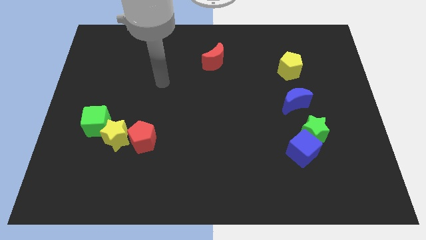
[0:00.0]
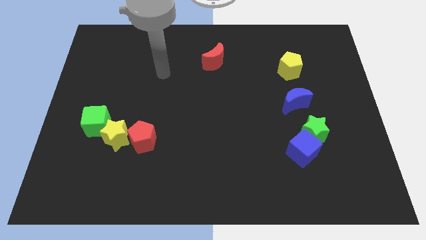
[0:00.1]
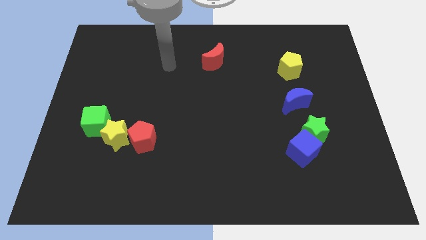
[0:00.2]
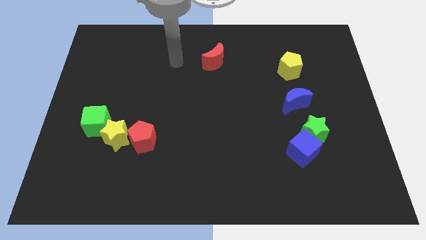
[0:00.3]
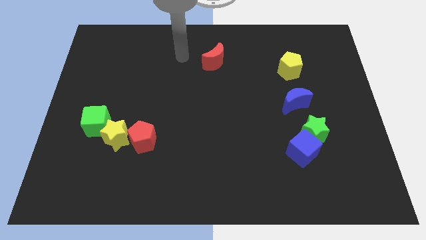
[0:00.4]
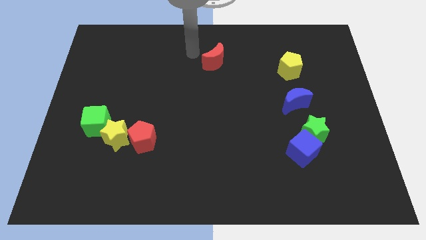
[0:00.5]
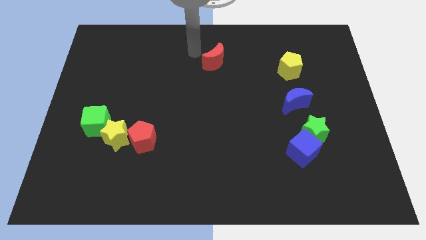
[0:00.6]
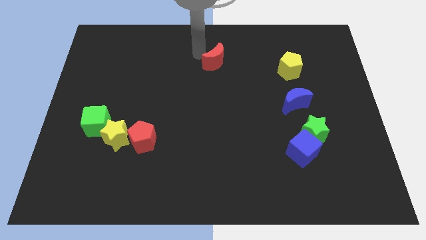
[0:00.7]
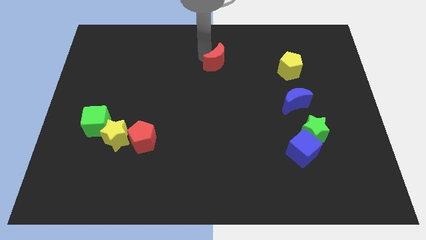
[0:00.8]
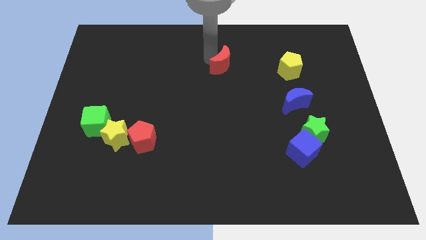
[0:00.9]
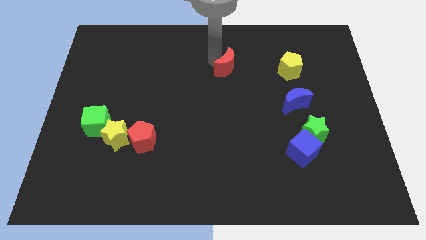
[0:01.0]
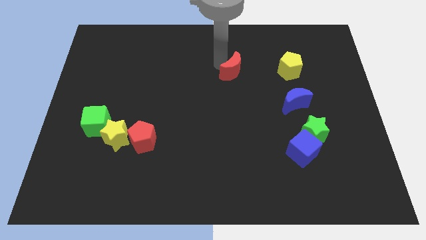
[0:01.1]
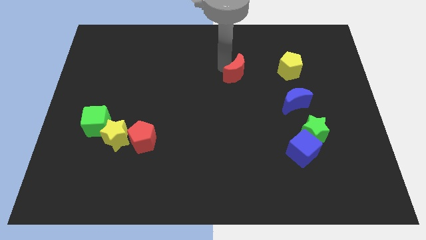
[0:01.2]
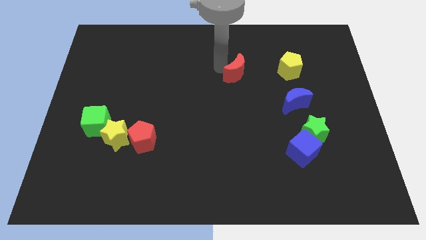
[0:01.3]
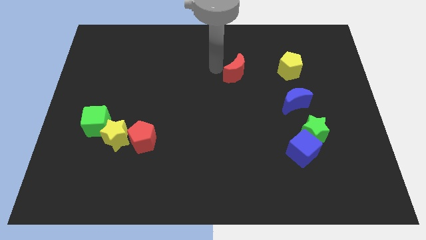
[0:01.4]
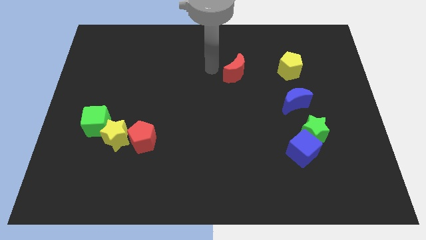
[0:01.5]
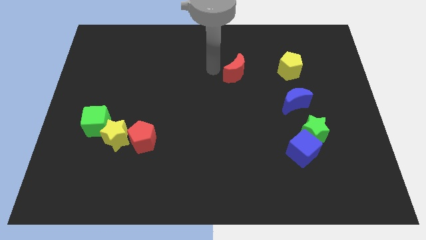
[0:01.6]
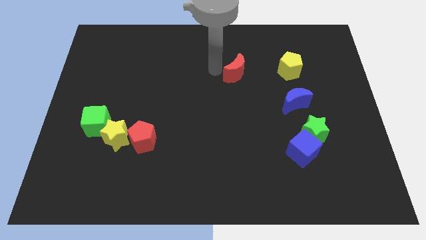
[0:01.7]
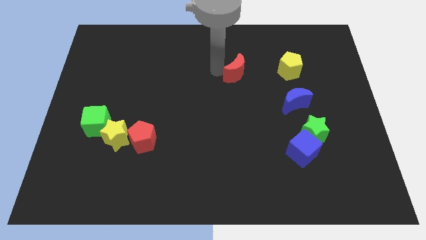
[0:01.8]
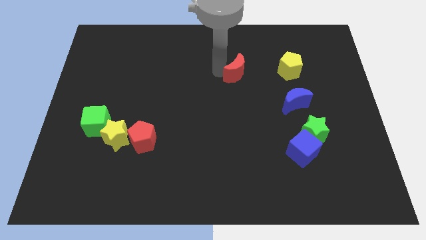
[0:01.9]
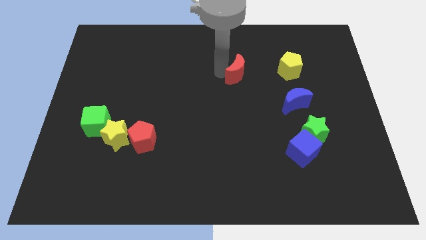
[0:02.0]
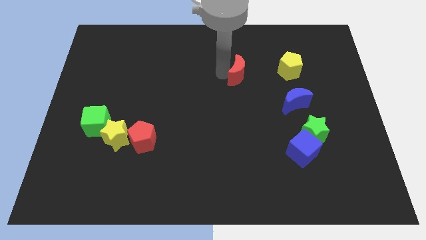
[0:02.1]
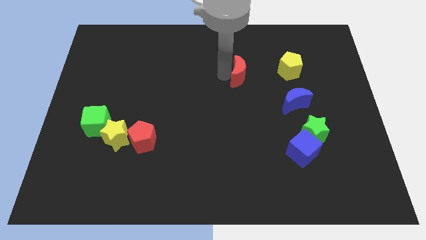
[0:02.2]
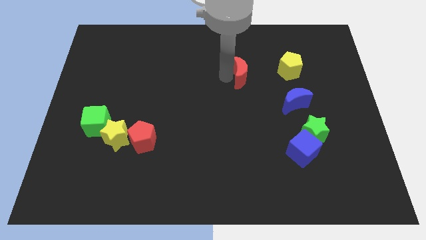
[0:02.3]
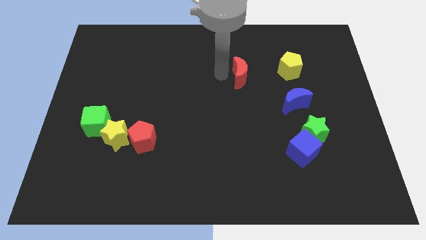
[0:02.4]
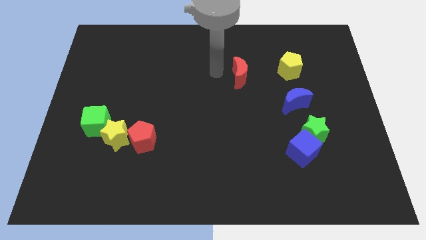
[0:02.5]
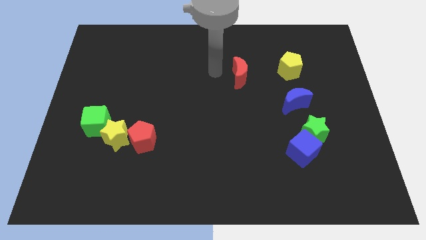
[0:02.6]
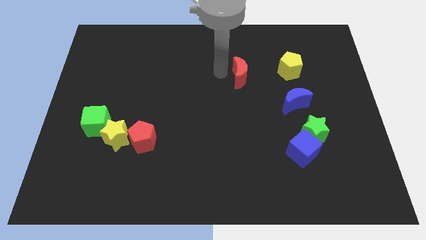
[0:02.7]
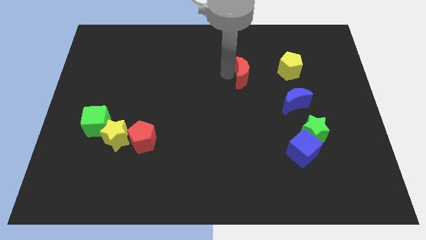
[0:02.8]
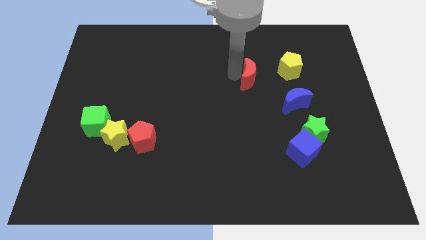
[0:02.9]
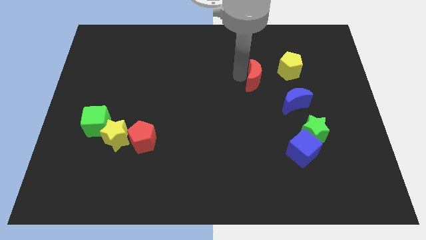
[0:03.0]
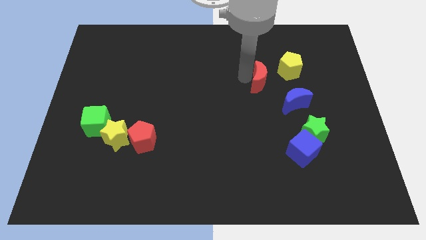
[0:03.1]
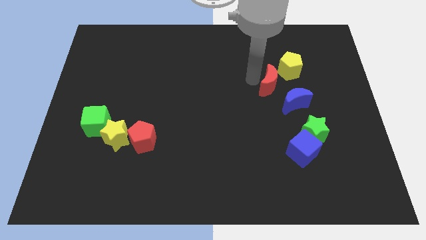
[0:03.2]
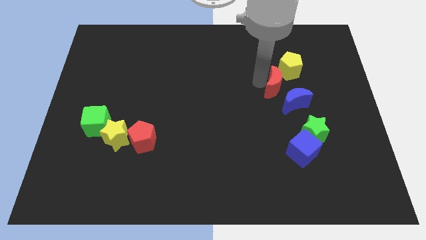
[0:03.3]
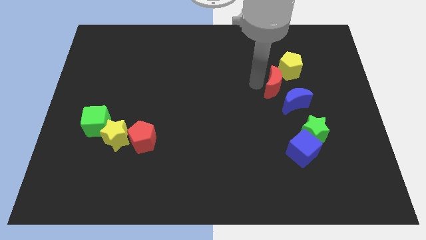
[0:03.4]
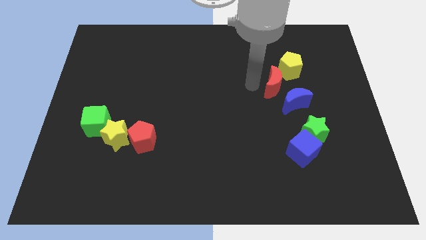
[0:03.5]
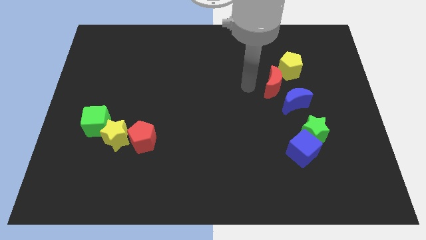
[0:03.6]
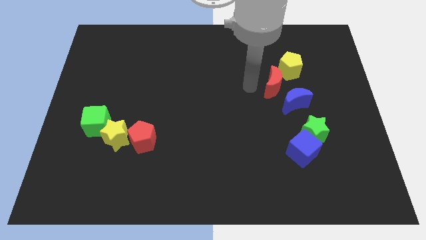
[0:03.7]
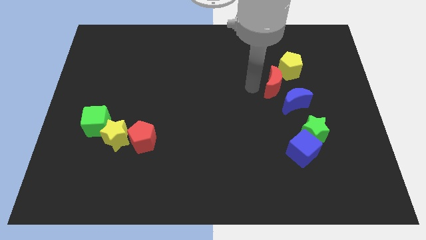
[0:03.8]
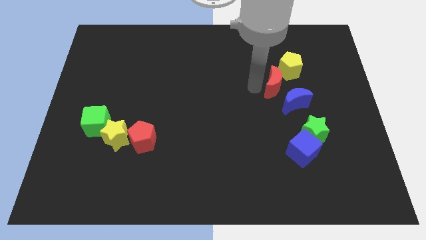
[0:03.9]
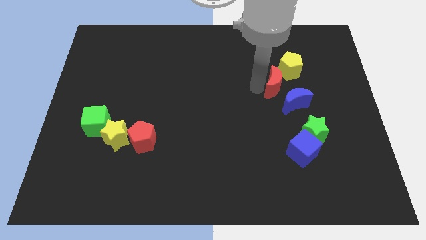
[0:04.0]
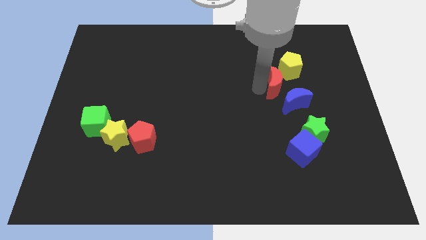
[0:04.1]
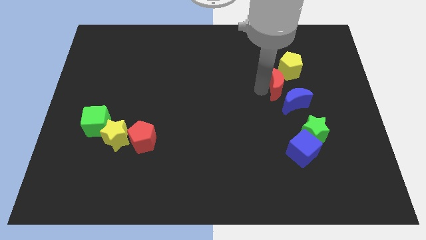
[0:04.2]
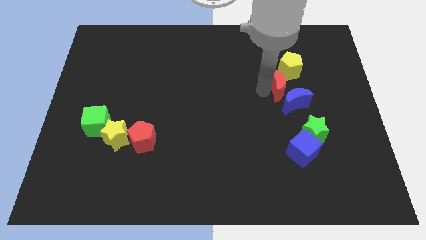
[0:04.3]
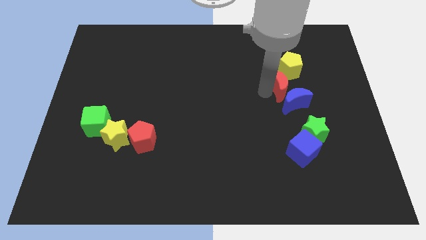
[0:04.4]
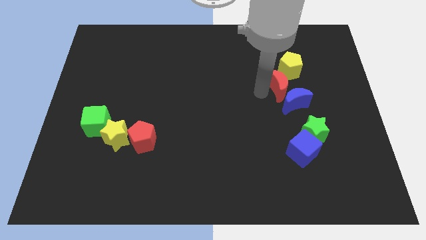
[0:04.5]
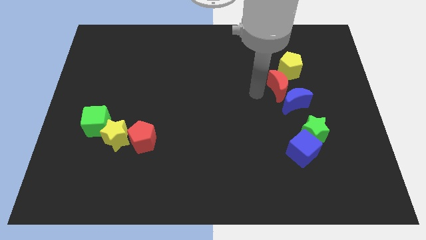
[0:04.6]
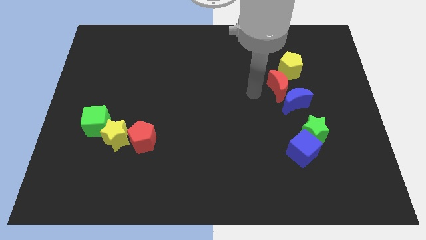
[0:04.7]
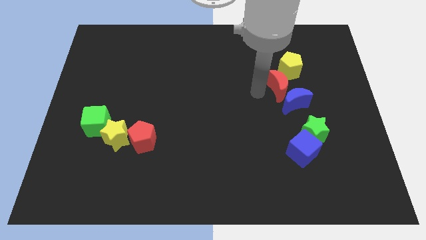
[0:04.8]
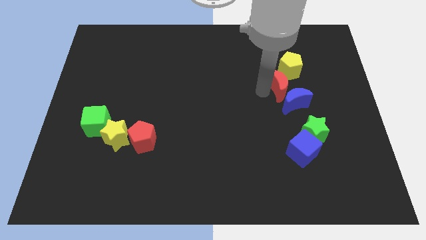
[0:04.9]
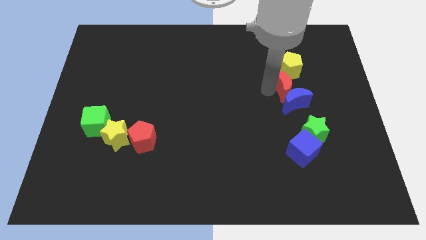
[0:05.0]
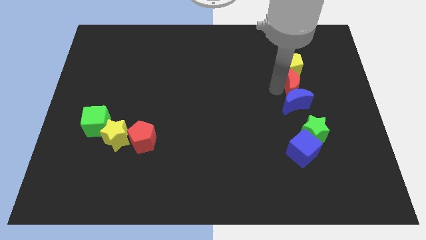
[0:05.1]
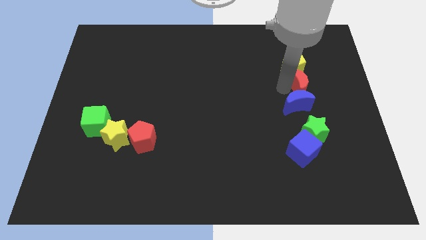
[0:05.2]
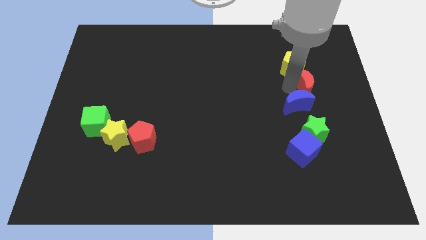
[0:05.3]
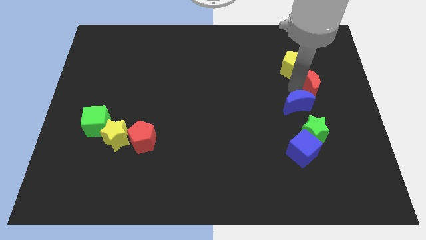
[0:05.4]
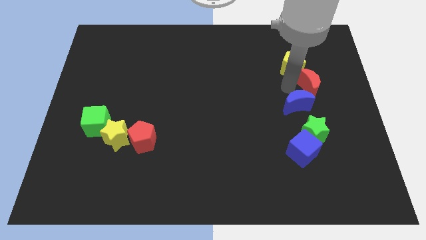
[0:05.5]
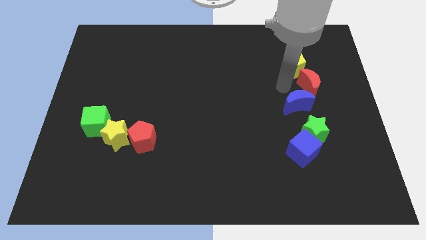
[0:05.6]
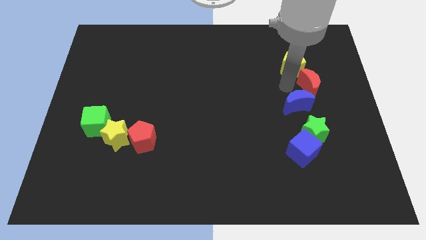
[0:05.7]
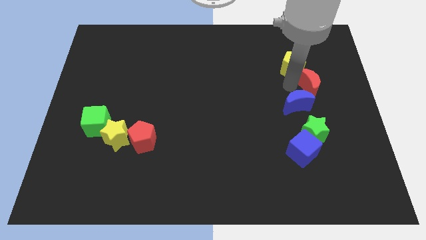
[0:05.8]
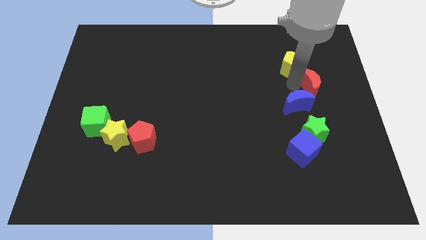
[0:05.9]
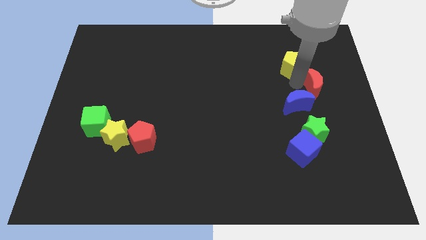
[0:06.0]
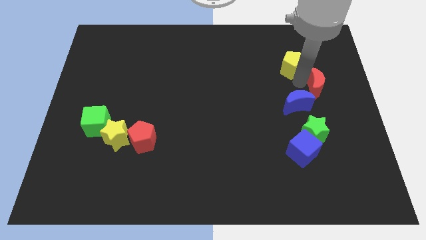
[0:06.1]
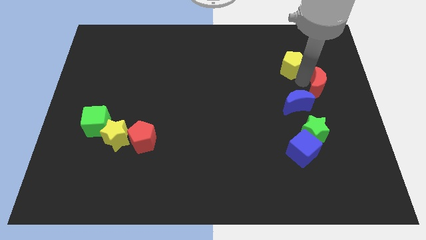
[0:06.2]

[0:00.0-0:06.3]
slide the red moon to the right side

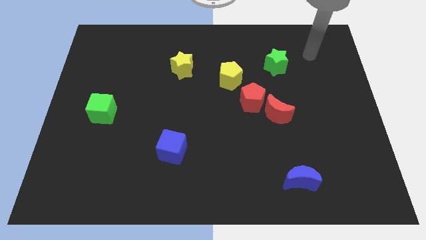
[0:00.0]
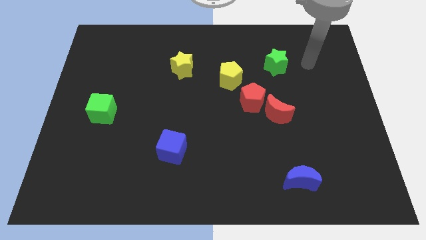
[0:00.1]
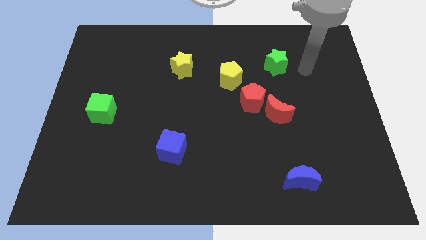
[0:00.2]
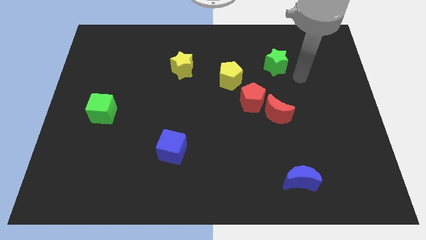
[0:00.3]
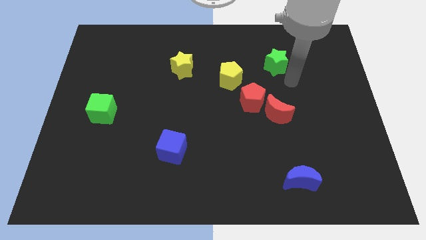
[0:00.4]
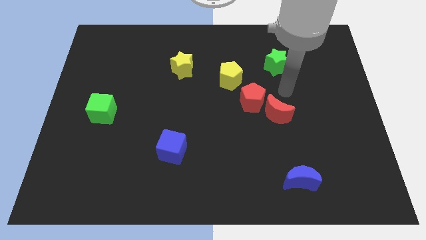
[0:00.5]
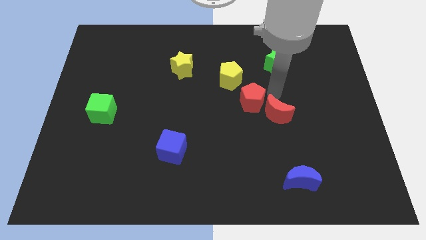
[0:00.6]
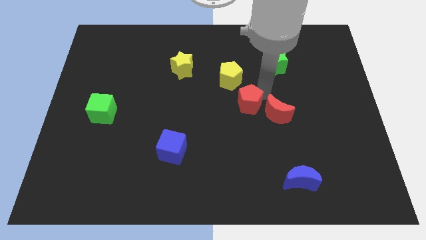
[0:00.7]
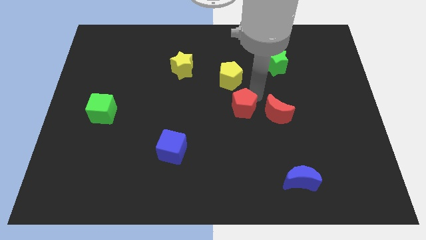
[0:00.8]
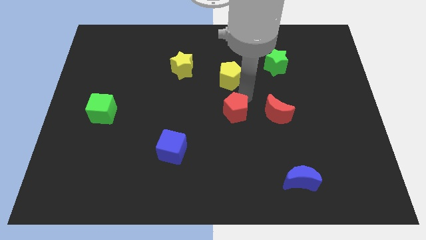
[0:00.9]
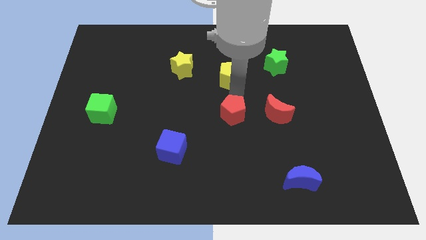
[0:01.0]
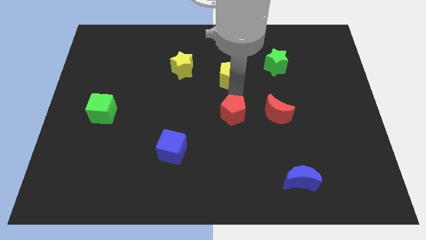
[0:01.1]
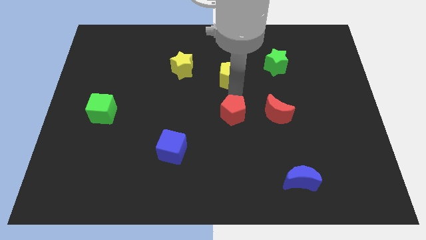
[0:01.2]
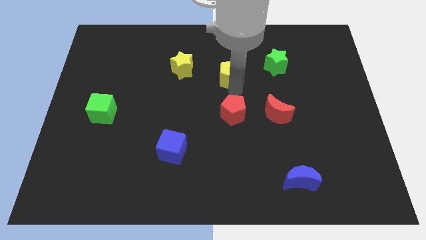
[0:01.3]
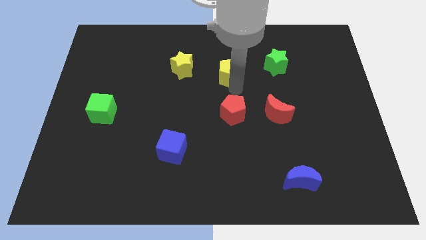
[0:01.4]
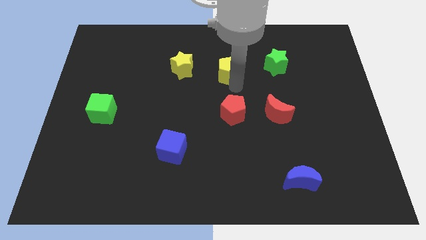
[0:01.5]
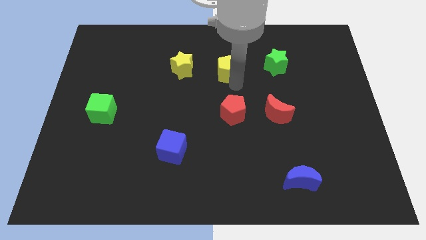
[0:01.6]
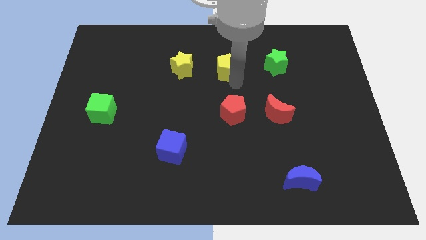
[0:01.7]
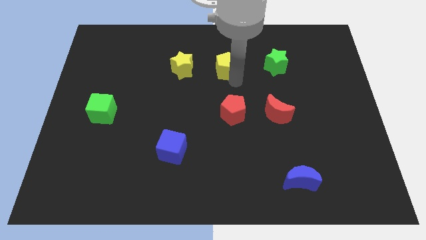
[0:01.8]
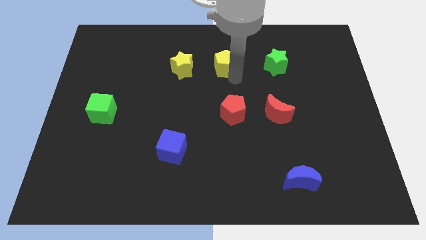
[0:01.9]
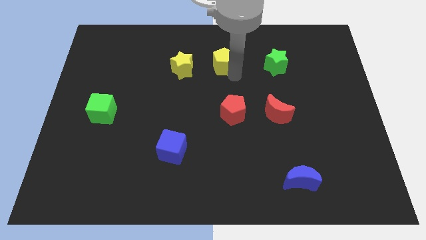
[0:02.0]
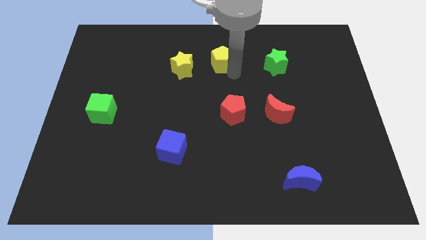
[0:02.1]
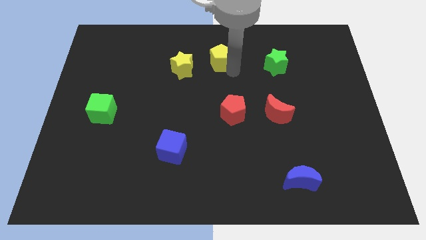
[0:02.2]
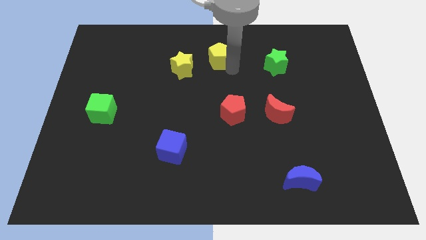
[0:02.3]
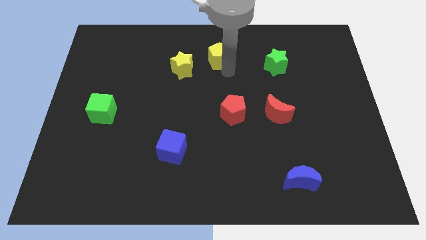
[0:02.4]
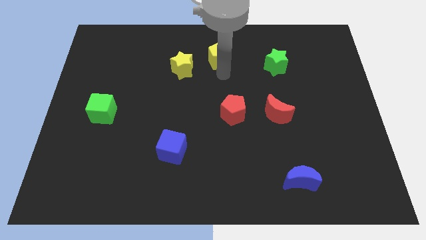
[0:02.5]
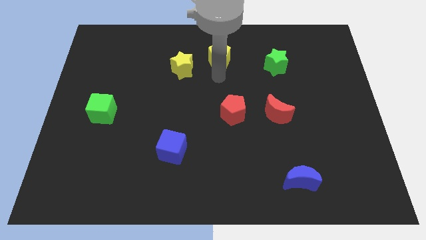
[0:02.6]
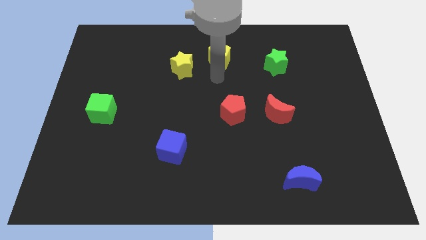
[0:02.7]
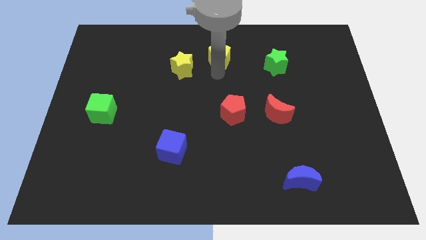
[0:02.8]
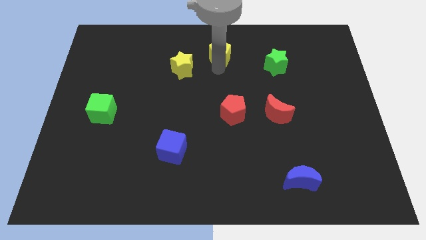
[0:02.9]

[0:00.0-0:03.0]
move the yellow pentagon to the top
